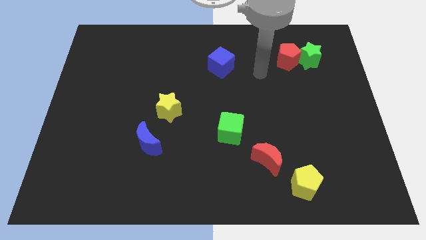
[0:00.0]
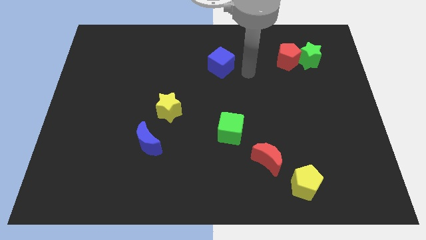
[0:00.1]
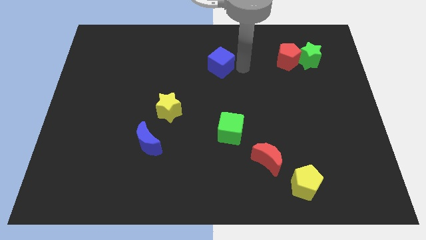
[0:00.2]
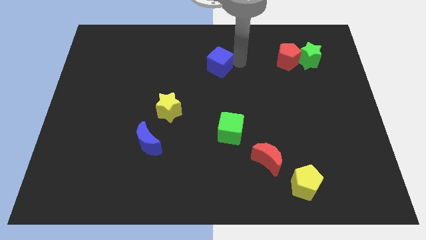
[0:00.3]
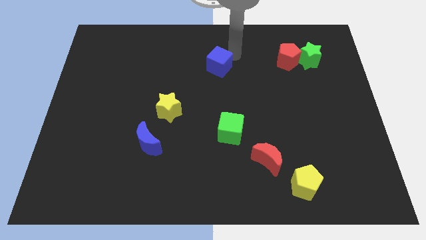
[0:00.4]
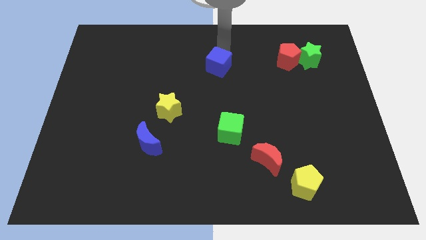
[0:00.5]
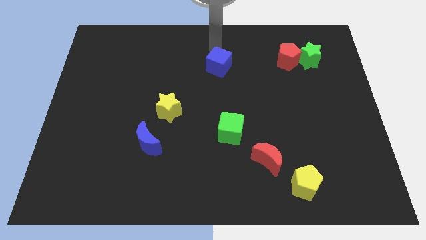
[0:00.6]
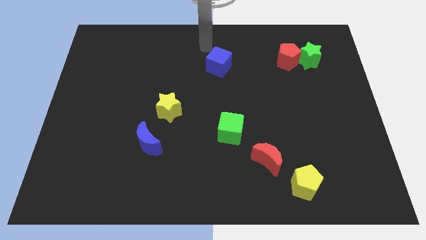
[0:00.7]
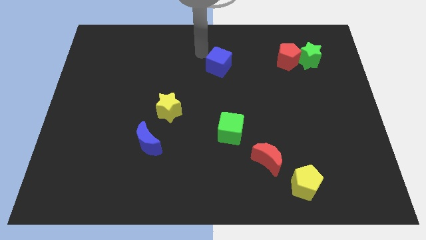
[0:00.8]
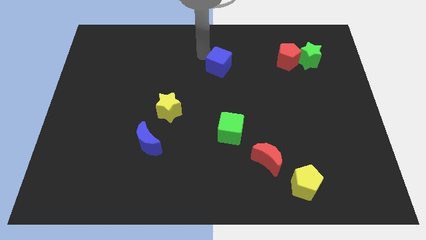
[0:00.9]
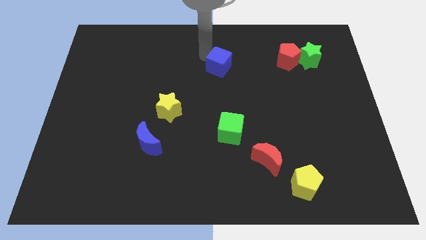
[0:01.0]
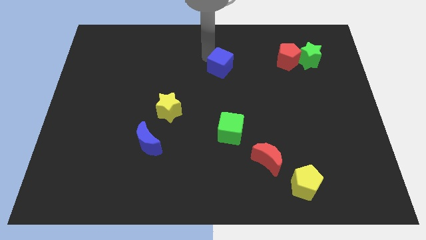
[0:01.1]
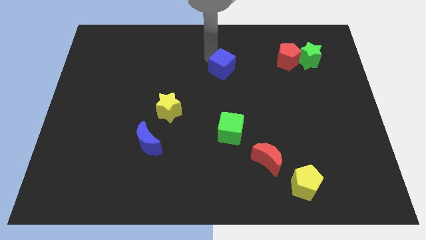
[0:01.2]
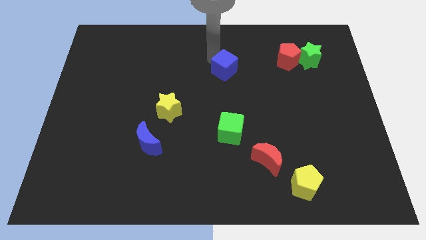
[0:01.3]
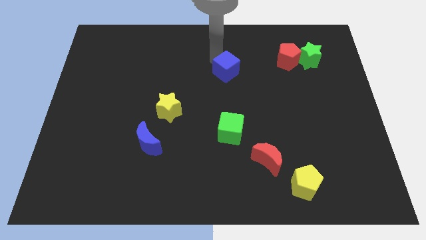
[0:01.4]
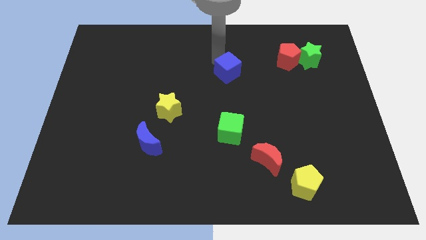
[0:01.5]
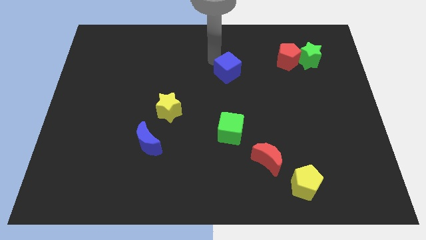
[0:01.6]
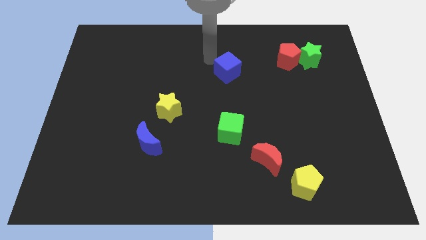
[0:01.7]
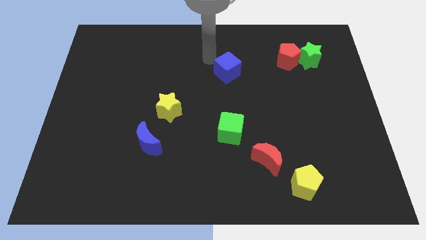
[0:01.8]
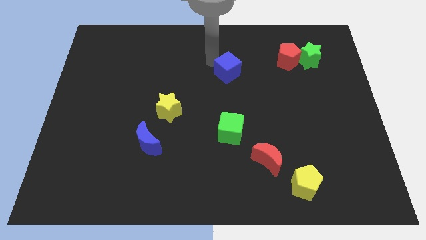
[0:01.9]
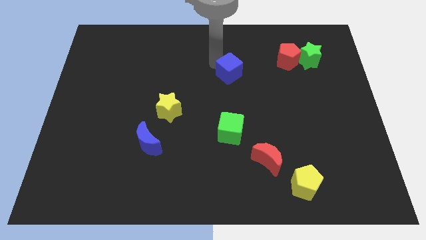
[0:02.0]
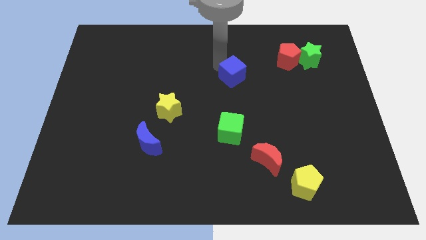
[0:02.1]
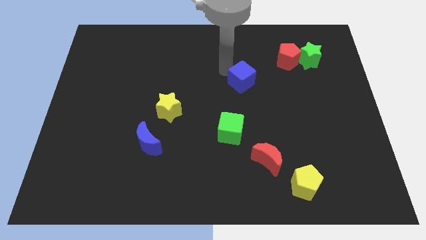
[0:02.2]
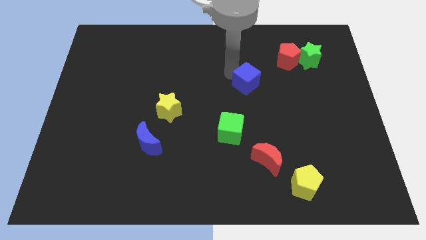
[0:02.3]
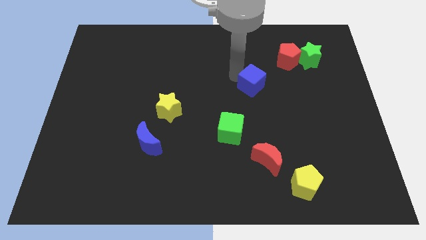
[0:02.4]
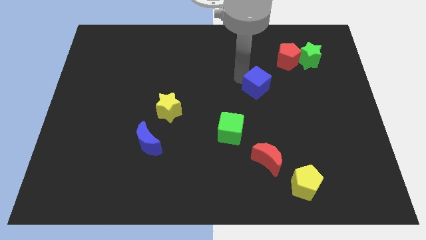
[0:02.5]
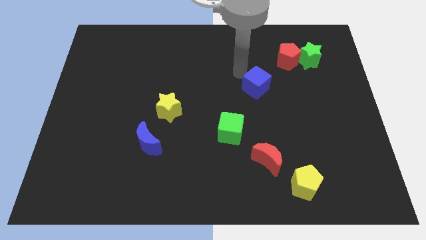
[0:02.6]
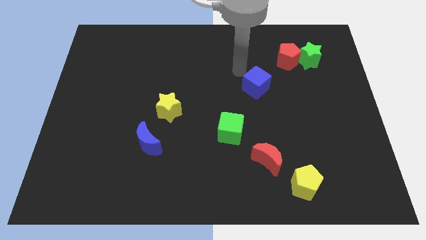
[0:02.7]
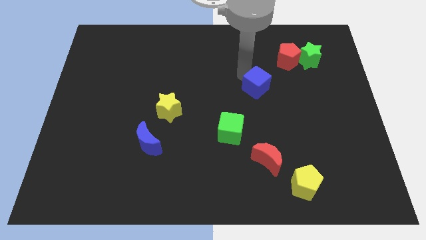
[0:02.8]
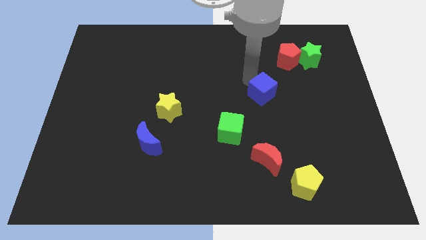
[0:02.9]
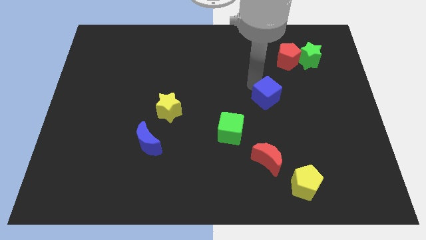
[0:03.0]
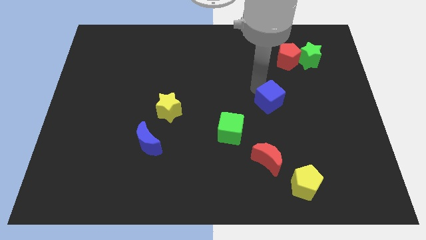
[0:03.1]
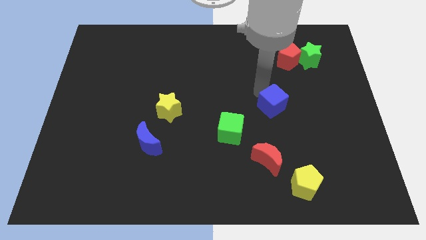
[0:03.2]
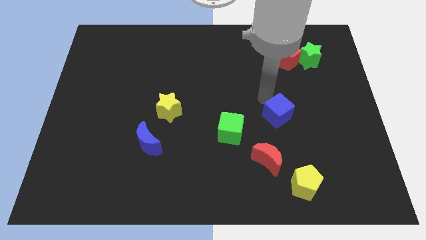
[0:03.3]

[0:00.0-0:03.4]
push the blue cube down and then right

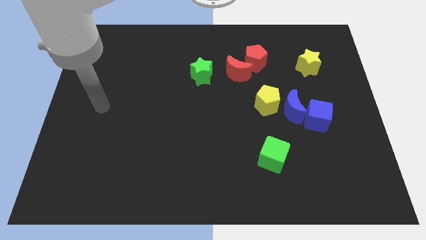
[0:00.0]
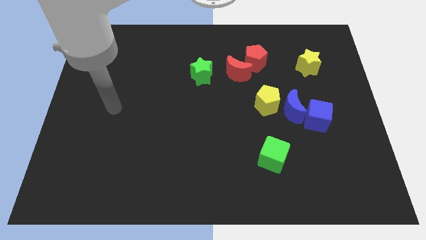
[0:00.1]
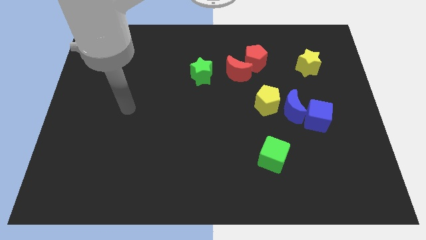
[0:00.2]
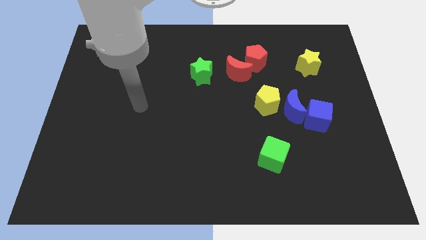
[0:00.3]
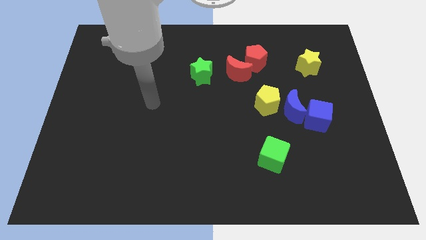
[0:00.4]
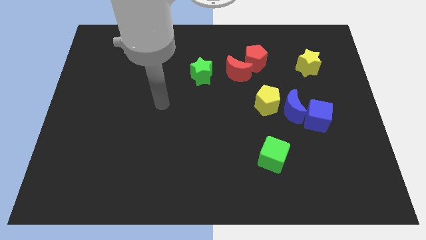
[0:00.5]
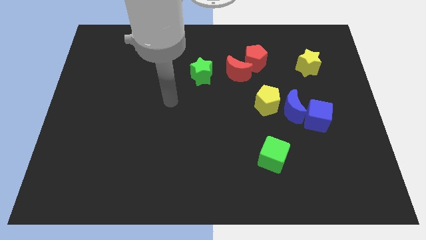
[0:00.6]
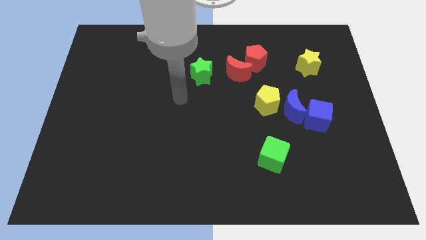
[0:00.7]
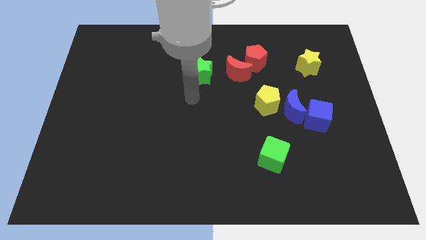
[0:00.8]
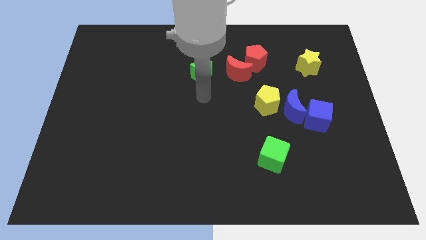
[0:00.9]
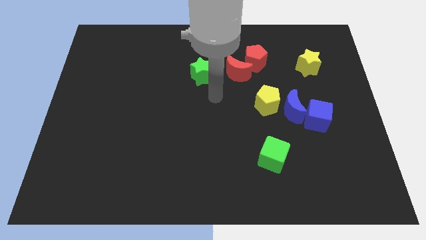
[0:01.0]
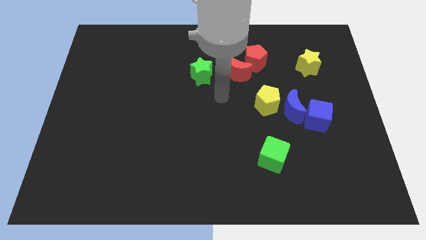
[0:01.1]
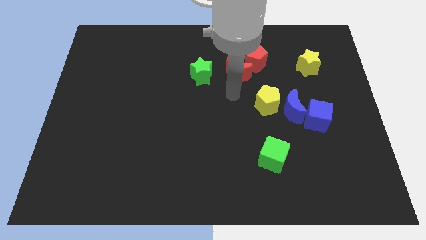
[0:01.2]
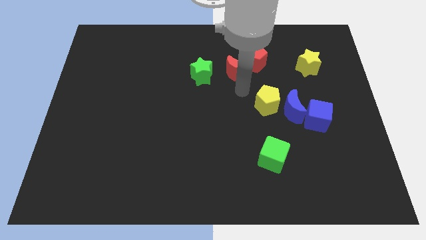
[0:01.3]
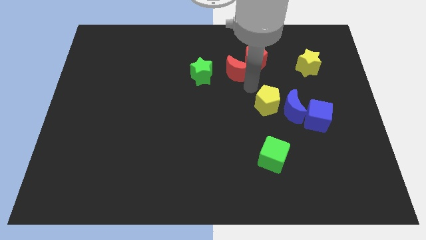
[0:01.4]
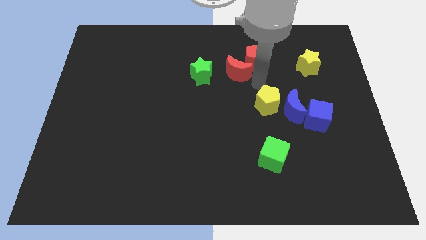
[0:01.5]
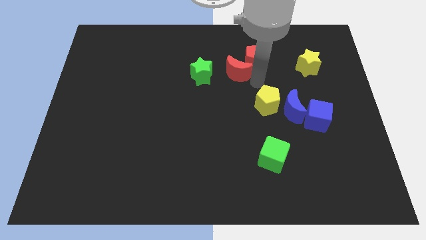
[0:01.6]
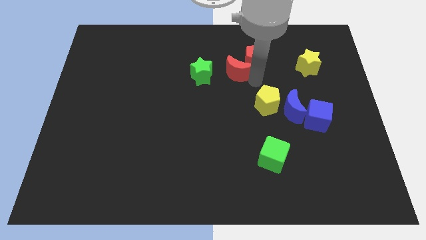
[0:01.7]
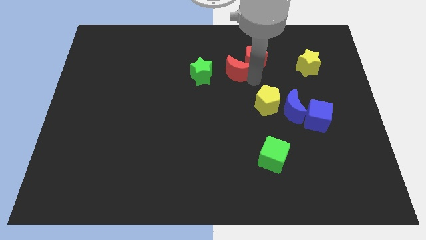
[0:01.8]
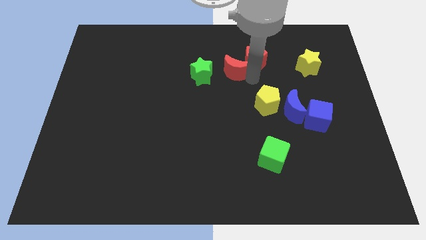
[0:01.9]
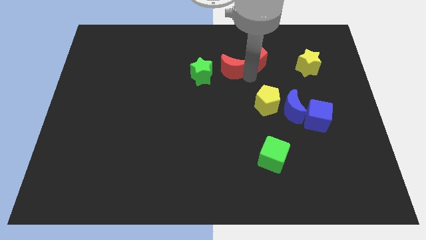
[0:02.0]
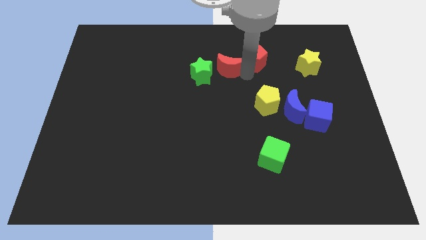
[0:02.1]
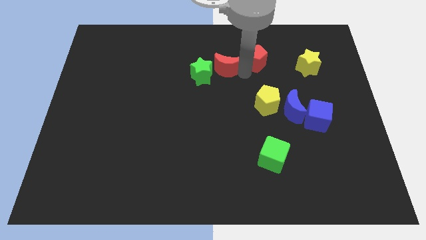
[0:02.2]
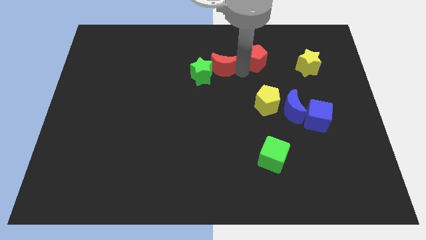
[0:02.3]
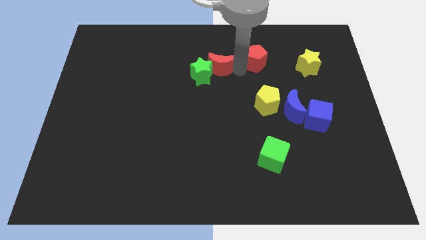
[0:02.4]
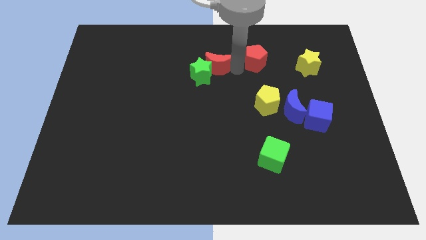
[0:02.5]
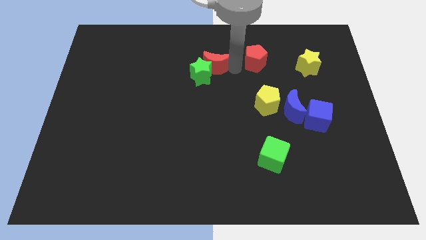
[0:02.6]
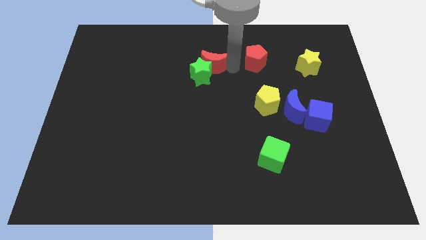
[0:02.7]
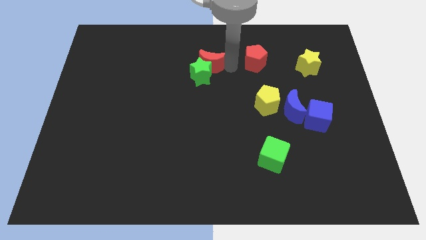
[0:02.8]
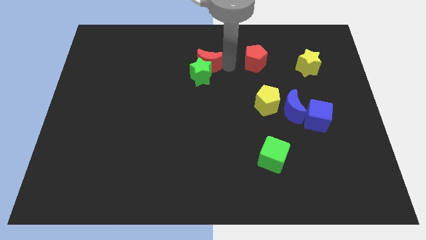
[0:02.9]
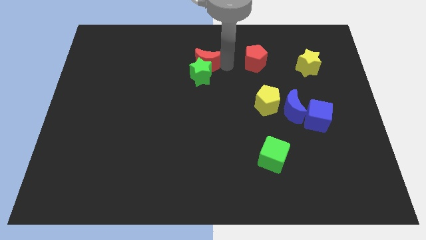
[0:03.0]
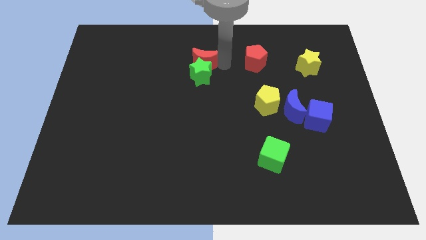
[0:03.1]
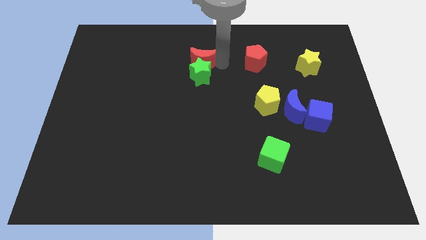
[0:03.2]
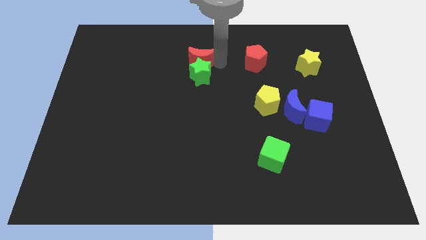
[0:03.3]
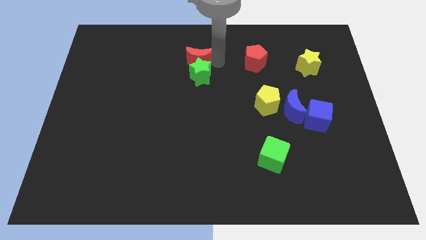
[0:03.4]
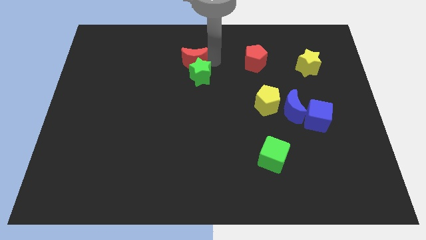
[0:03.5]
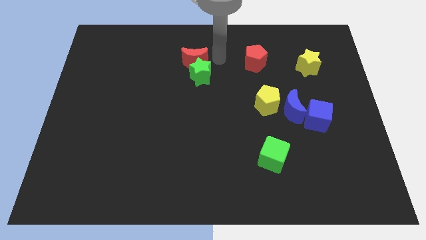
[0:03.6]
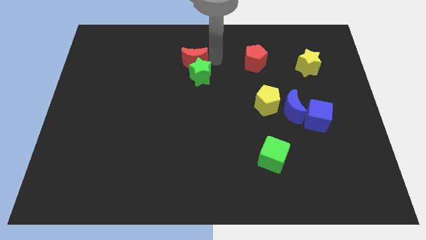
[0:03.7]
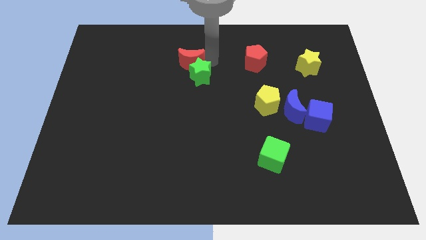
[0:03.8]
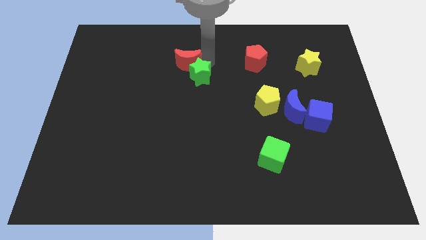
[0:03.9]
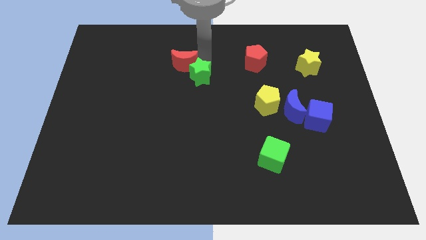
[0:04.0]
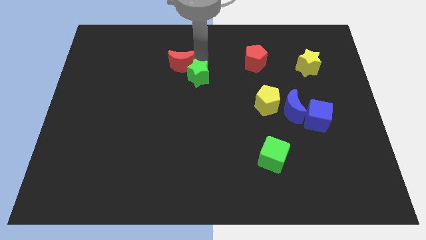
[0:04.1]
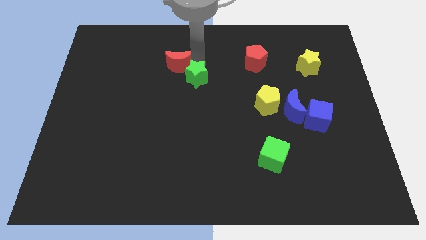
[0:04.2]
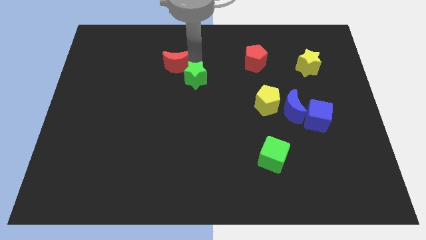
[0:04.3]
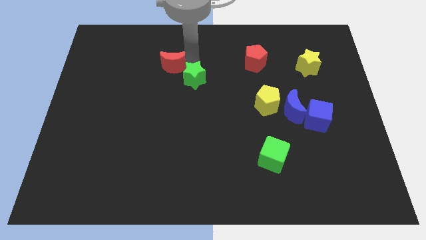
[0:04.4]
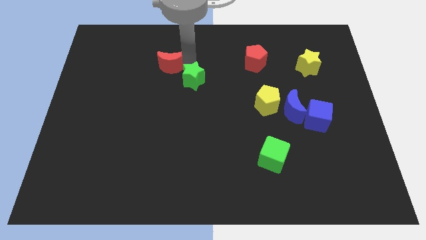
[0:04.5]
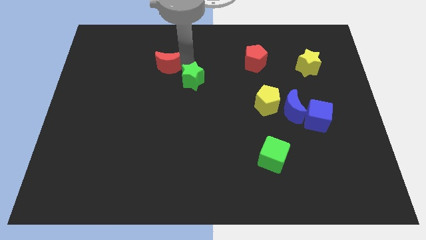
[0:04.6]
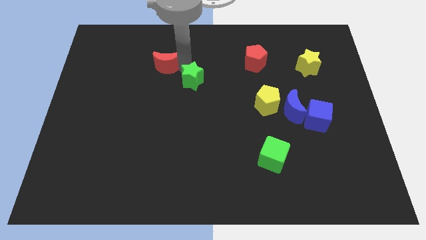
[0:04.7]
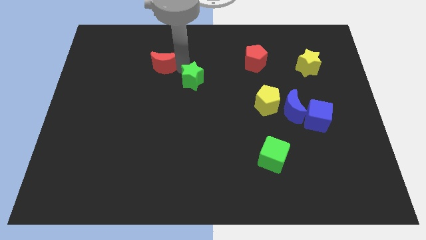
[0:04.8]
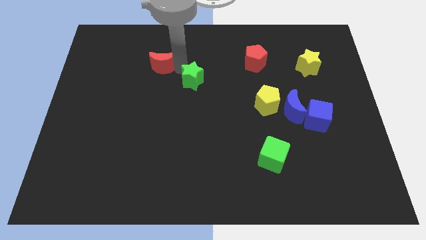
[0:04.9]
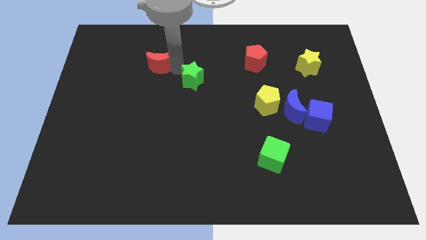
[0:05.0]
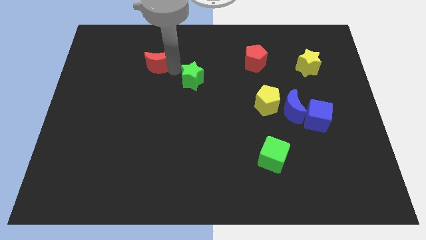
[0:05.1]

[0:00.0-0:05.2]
slide the red moon to the left
